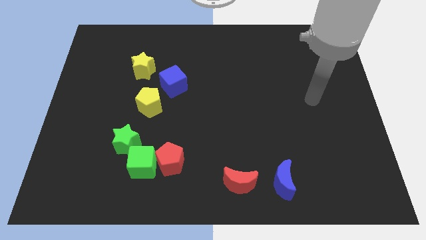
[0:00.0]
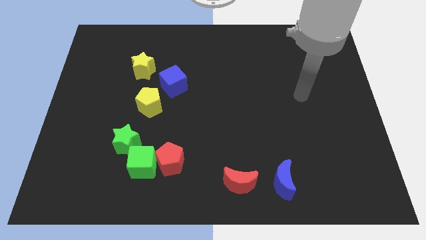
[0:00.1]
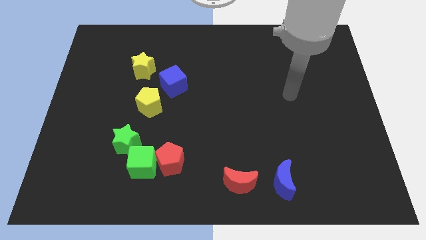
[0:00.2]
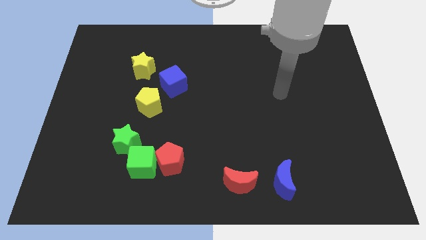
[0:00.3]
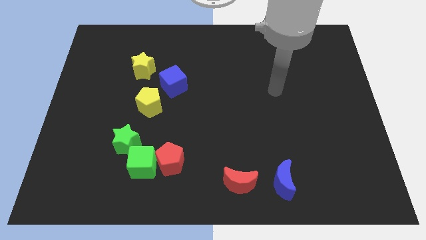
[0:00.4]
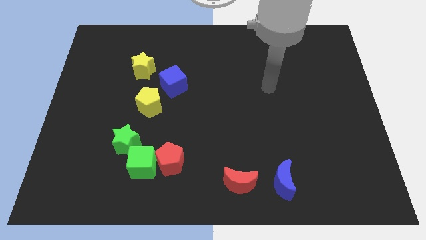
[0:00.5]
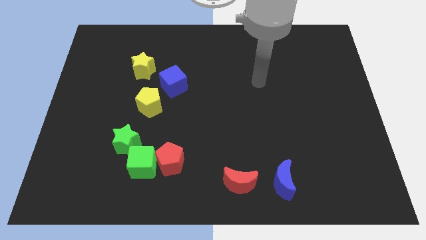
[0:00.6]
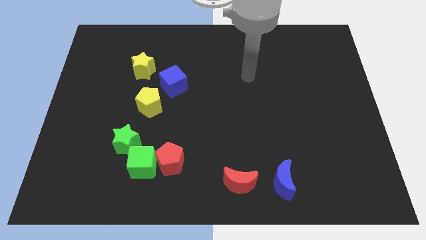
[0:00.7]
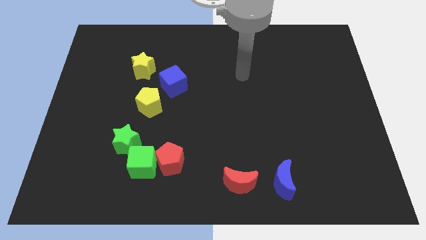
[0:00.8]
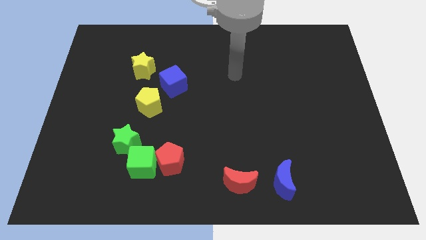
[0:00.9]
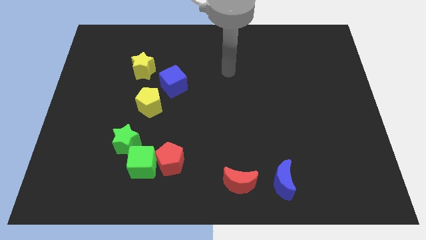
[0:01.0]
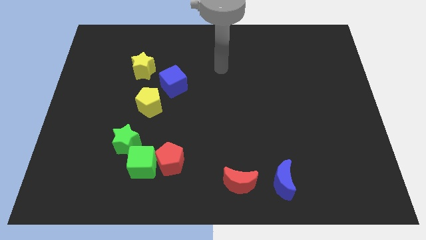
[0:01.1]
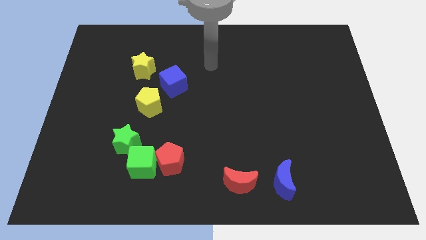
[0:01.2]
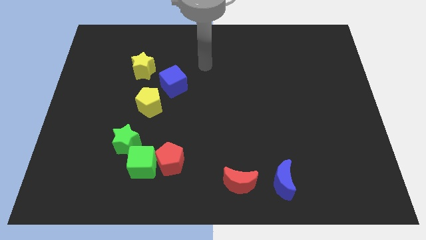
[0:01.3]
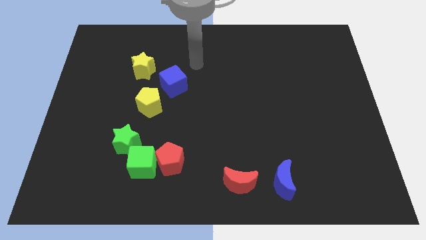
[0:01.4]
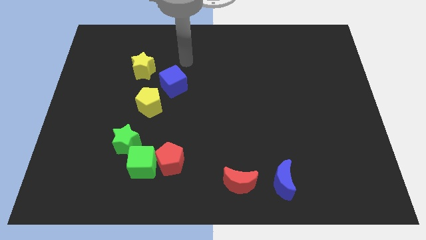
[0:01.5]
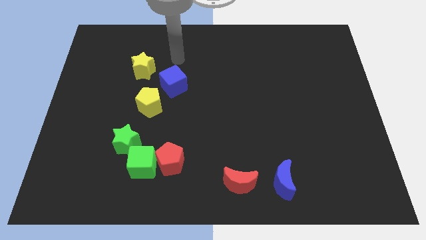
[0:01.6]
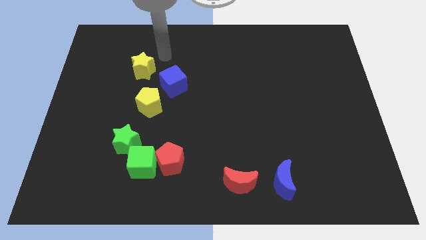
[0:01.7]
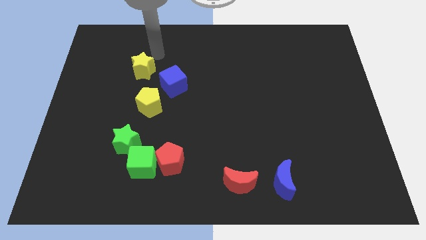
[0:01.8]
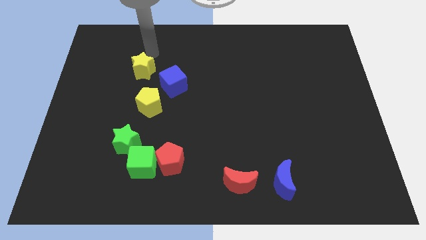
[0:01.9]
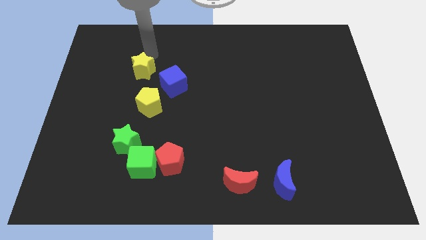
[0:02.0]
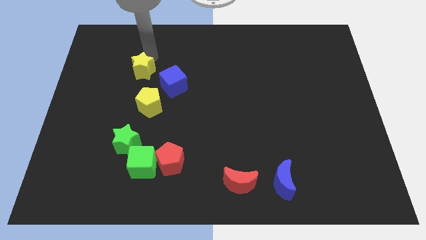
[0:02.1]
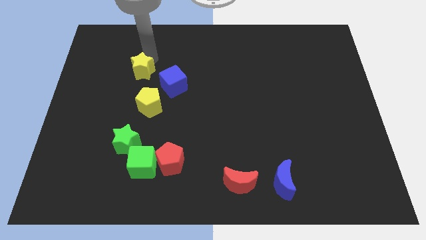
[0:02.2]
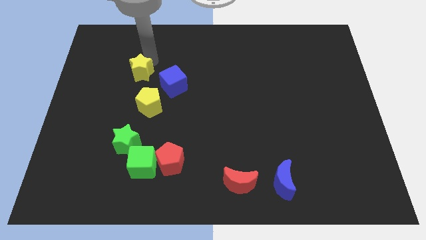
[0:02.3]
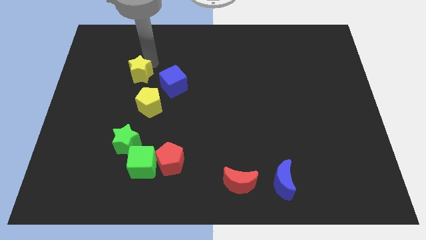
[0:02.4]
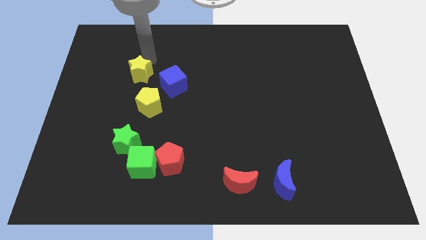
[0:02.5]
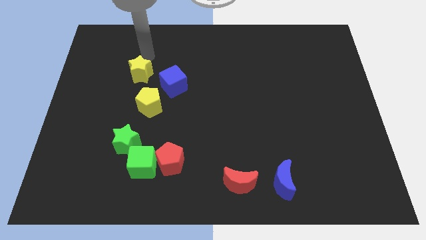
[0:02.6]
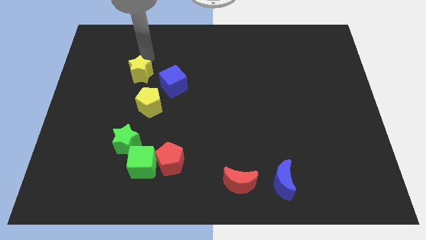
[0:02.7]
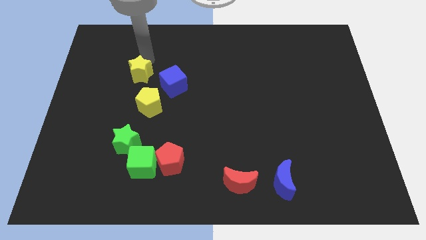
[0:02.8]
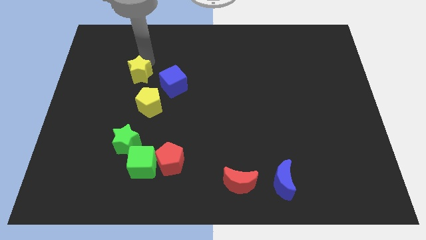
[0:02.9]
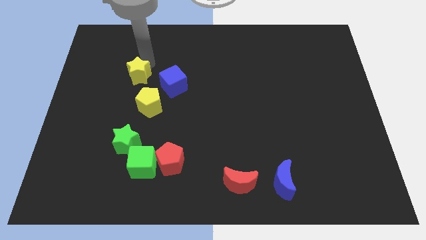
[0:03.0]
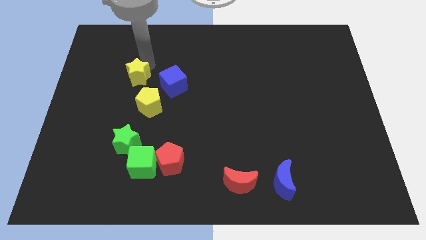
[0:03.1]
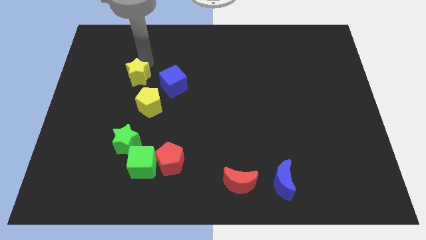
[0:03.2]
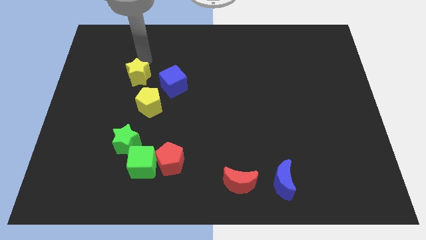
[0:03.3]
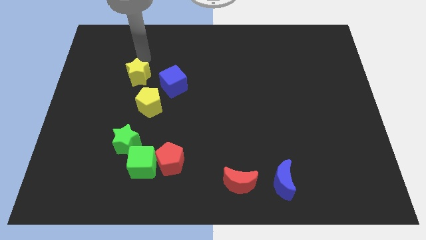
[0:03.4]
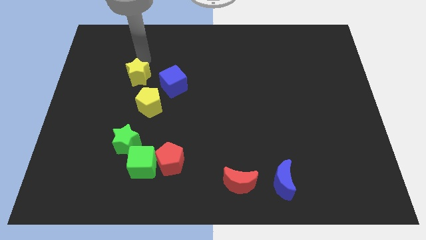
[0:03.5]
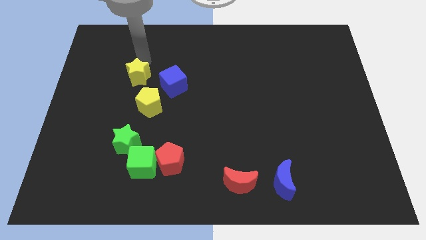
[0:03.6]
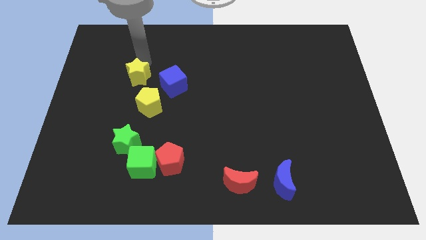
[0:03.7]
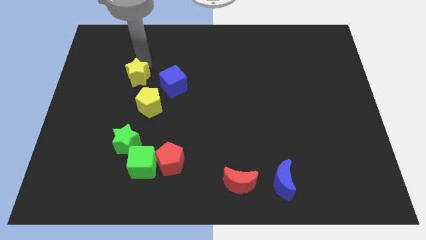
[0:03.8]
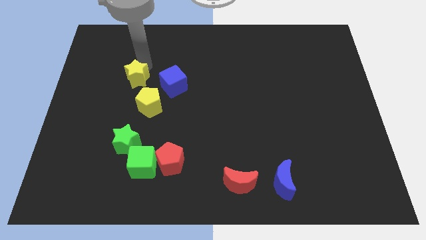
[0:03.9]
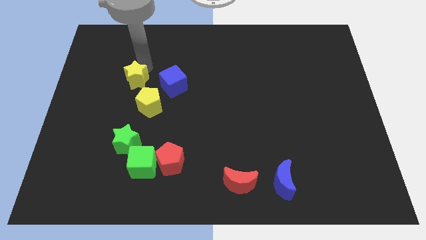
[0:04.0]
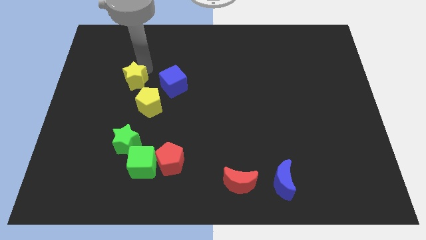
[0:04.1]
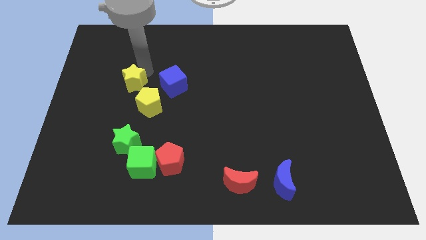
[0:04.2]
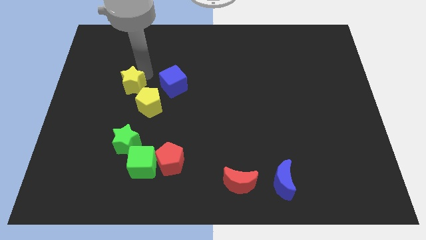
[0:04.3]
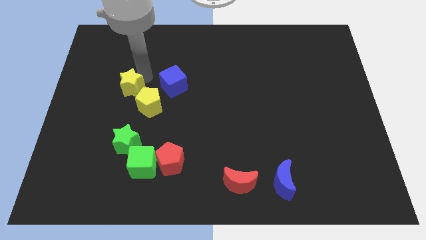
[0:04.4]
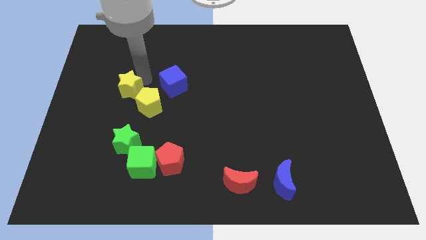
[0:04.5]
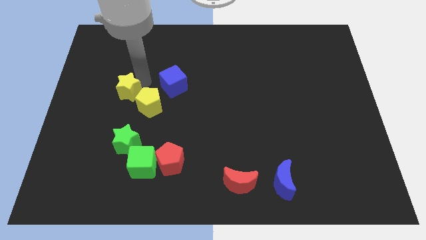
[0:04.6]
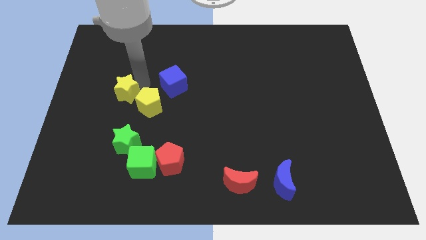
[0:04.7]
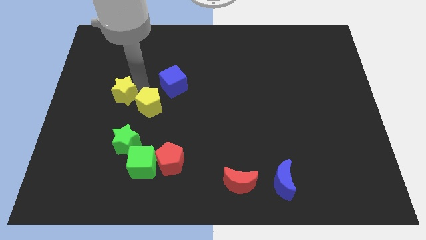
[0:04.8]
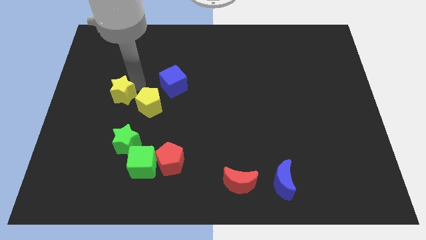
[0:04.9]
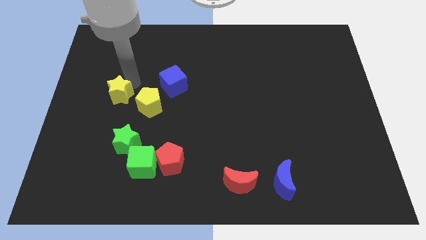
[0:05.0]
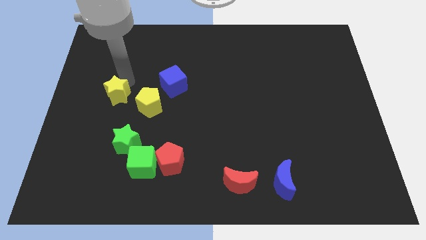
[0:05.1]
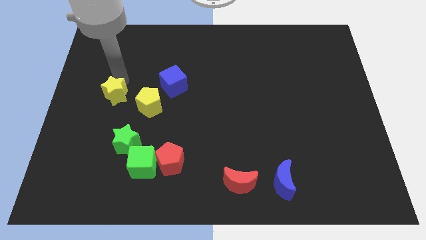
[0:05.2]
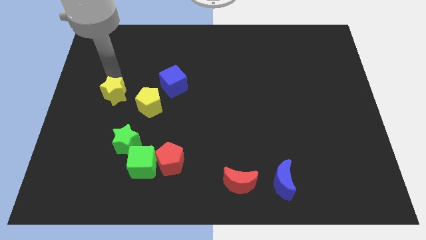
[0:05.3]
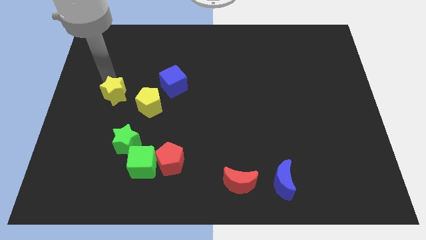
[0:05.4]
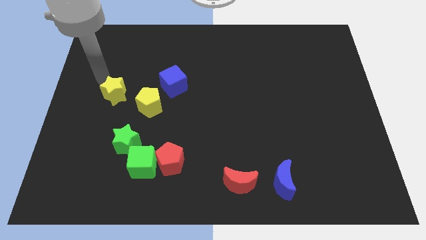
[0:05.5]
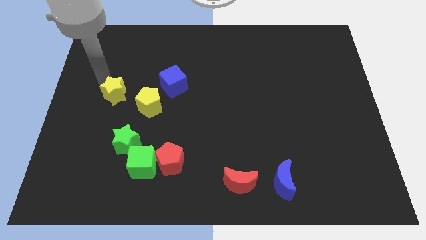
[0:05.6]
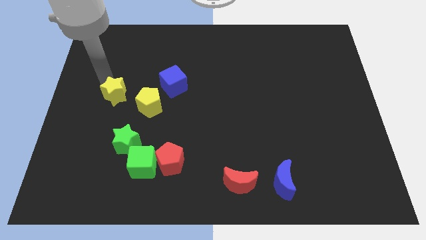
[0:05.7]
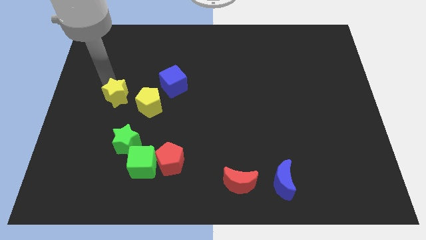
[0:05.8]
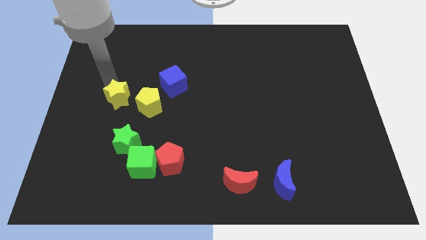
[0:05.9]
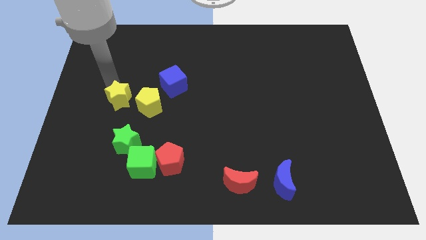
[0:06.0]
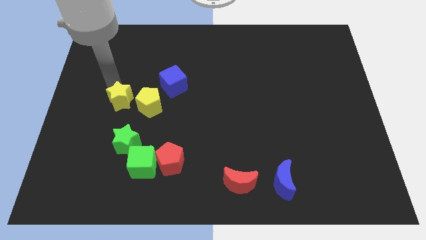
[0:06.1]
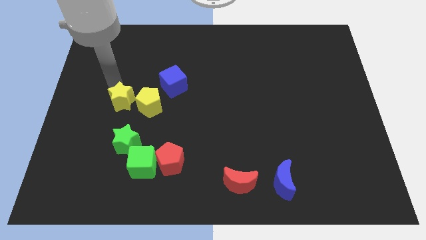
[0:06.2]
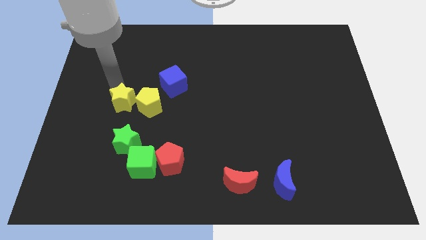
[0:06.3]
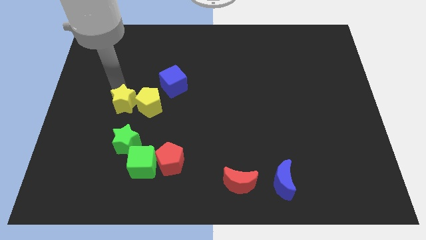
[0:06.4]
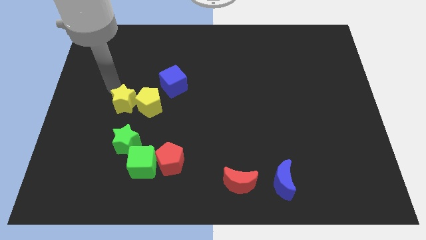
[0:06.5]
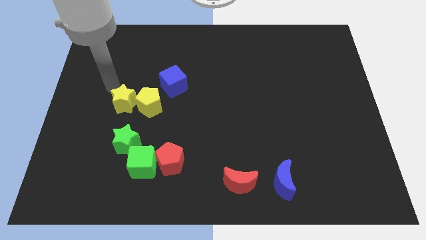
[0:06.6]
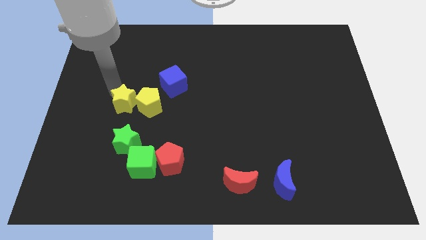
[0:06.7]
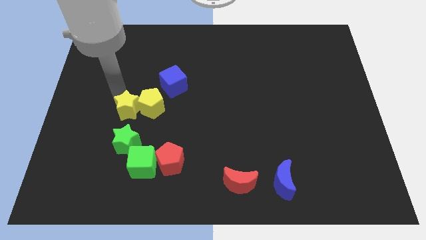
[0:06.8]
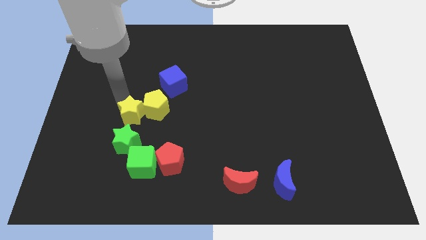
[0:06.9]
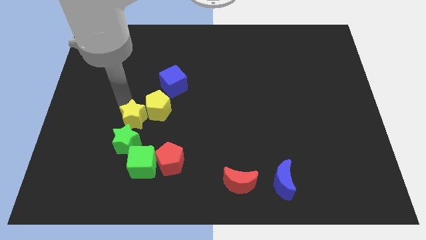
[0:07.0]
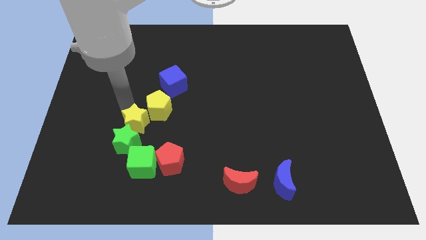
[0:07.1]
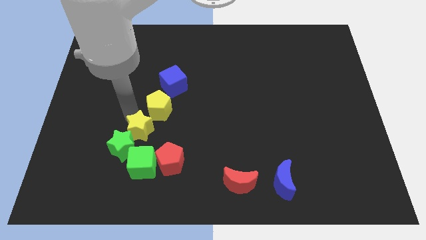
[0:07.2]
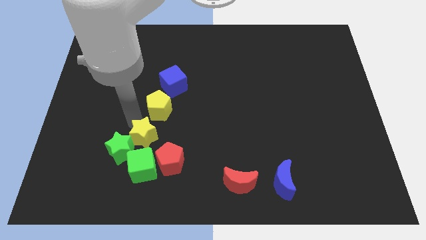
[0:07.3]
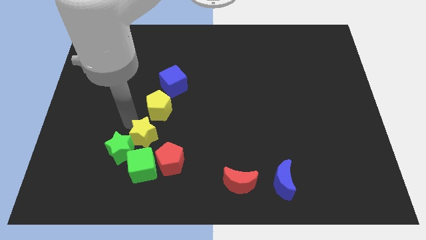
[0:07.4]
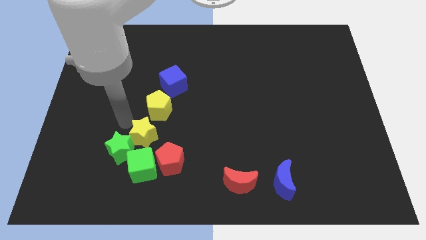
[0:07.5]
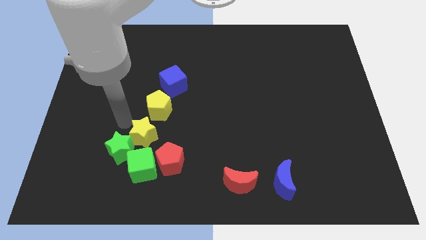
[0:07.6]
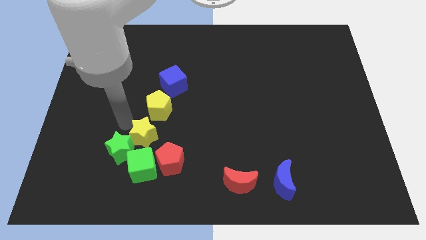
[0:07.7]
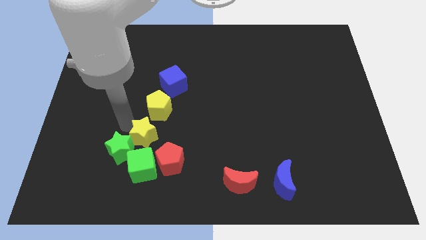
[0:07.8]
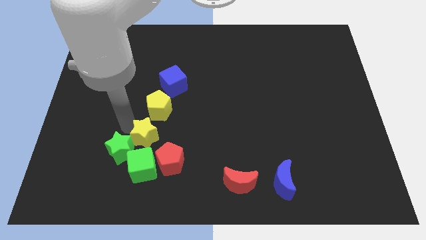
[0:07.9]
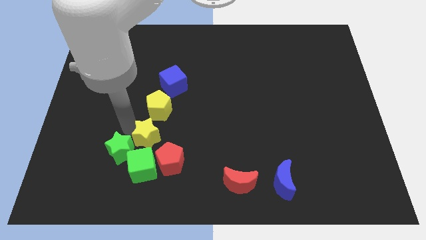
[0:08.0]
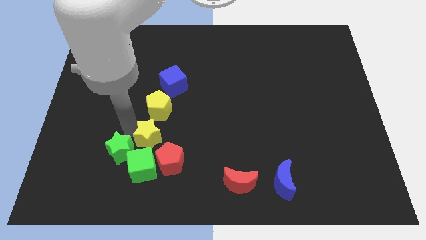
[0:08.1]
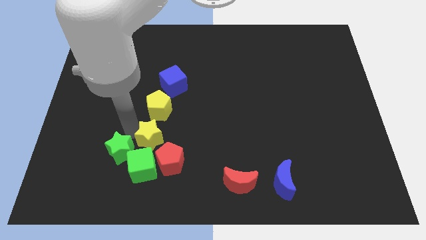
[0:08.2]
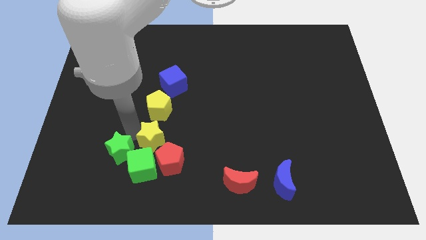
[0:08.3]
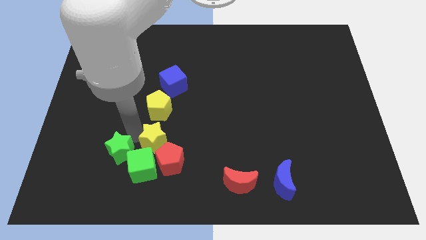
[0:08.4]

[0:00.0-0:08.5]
slide the yellow star close to the red pentagon
